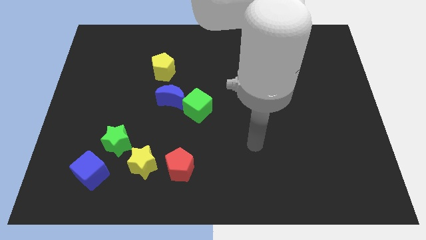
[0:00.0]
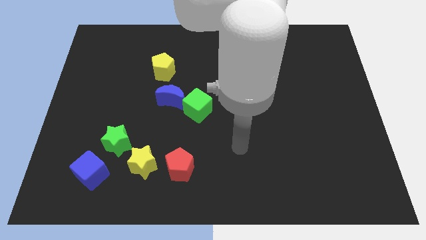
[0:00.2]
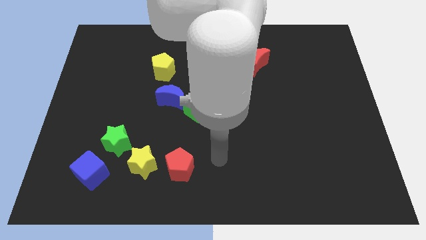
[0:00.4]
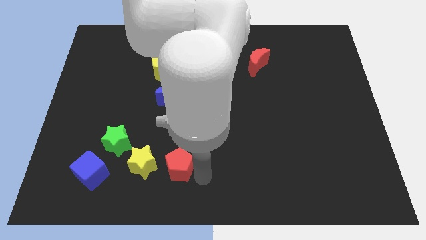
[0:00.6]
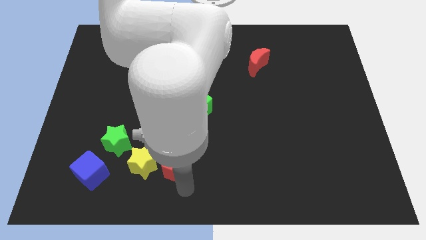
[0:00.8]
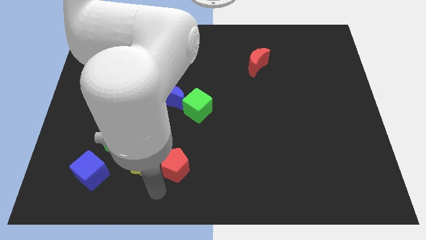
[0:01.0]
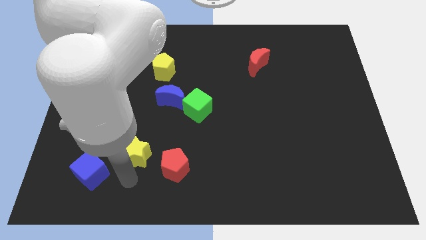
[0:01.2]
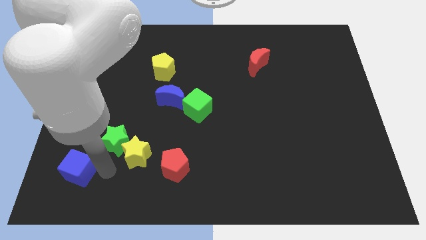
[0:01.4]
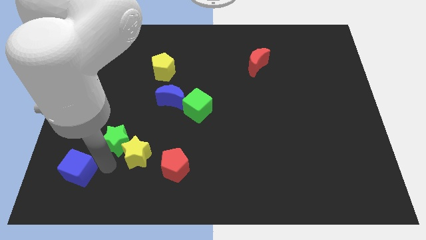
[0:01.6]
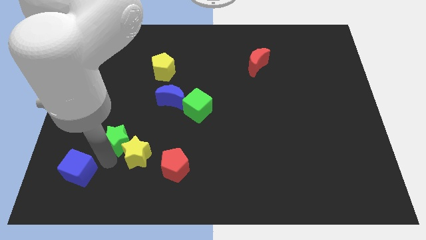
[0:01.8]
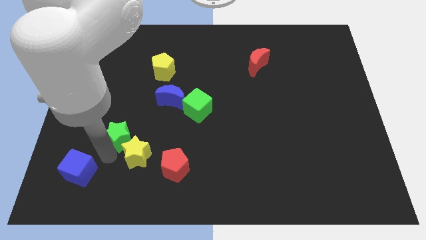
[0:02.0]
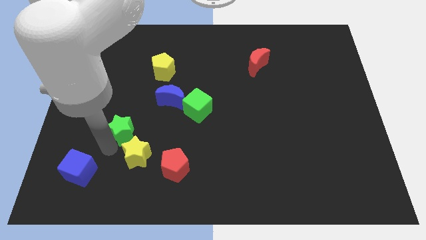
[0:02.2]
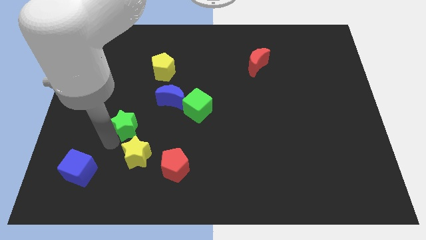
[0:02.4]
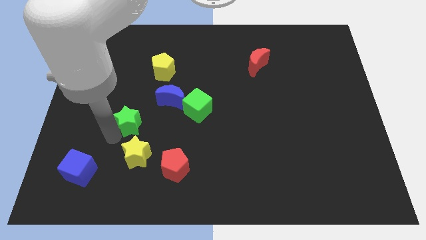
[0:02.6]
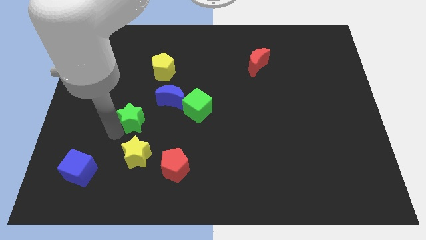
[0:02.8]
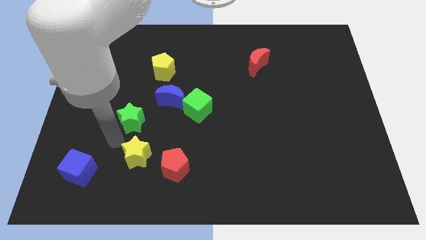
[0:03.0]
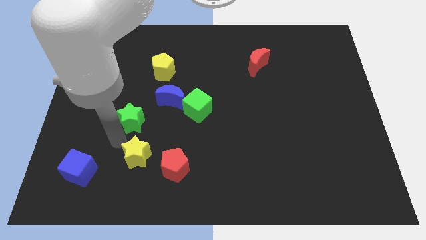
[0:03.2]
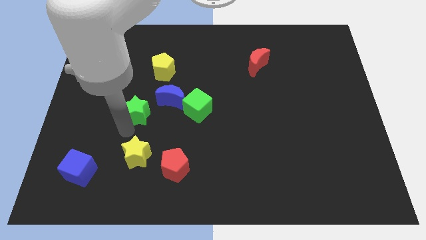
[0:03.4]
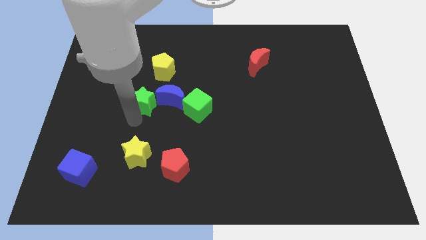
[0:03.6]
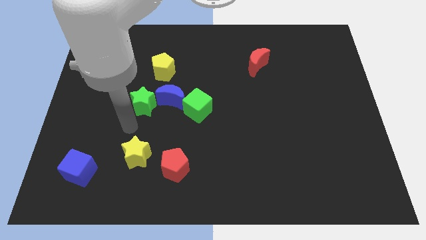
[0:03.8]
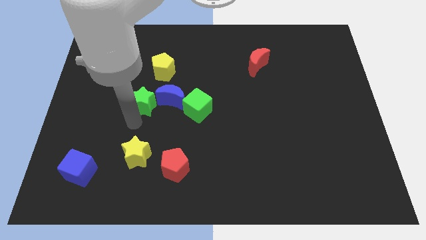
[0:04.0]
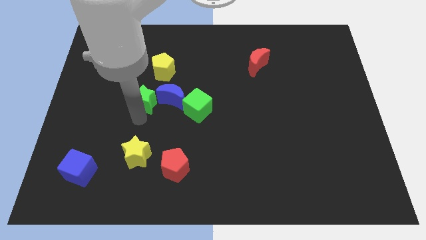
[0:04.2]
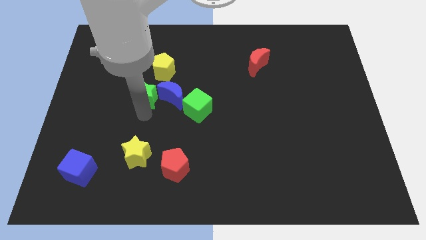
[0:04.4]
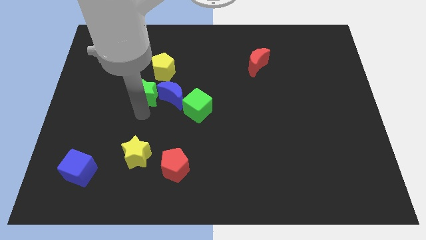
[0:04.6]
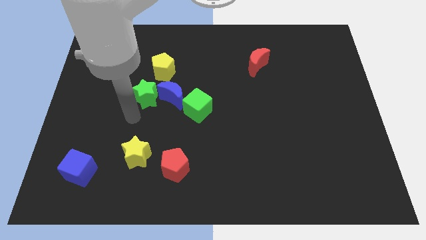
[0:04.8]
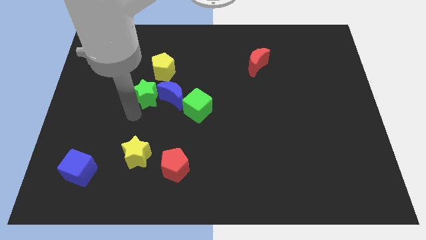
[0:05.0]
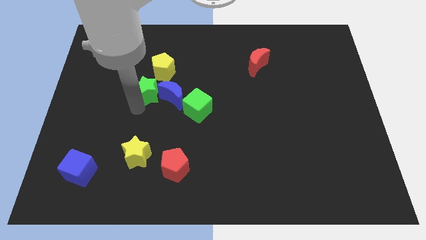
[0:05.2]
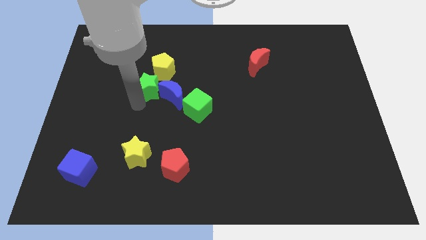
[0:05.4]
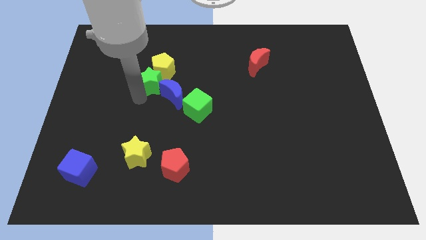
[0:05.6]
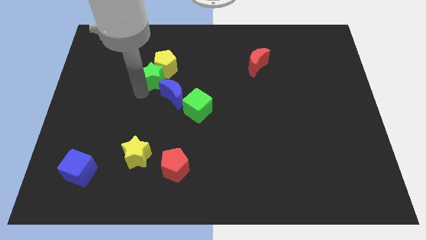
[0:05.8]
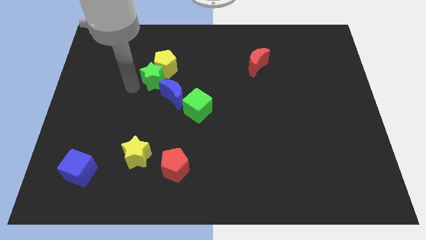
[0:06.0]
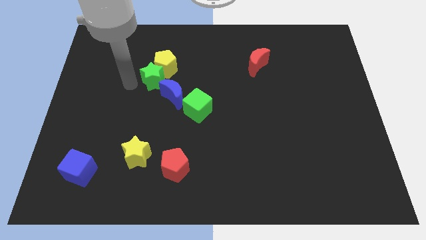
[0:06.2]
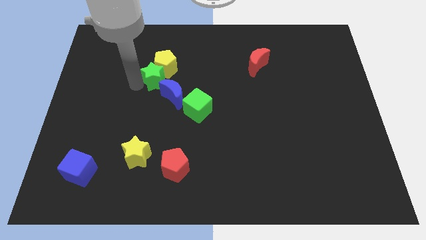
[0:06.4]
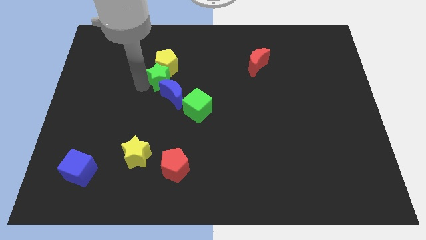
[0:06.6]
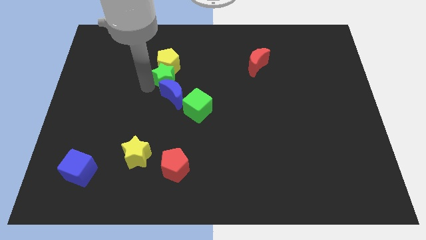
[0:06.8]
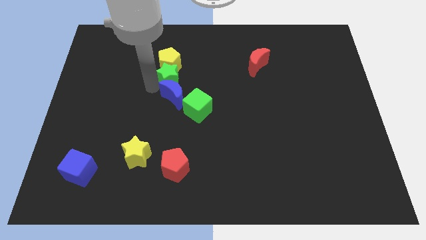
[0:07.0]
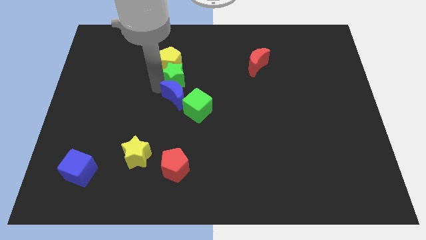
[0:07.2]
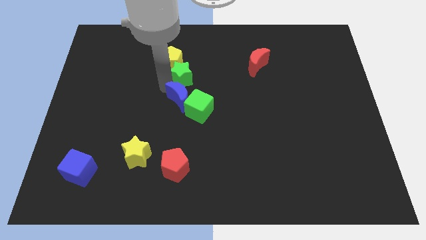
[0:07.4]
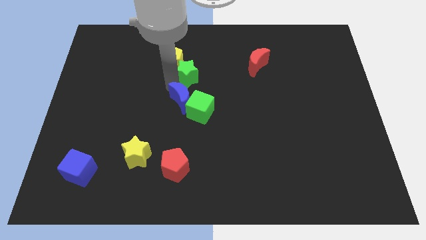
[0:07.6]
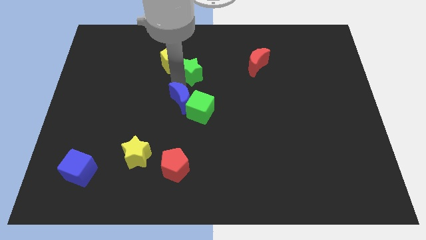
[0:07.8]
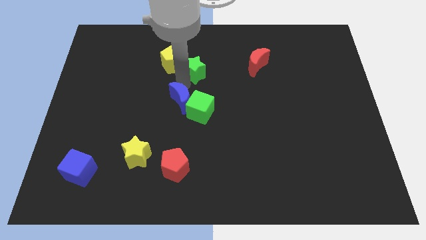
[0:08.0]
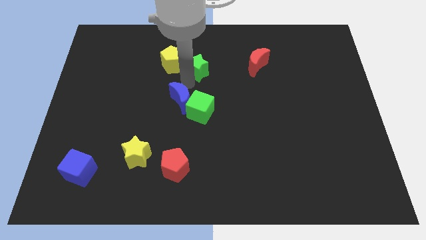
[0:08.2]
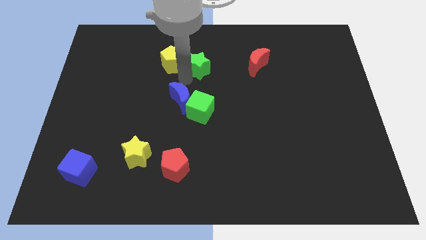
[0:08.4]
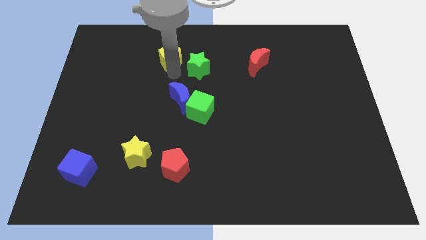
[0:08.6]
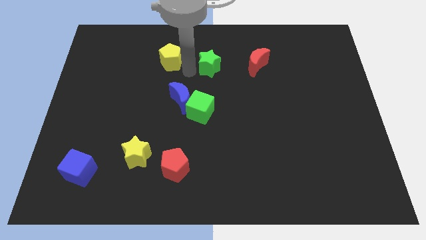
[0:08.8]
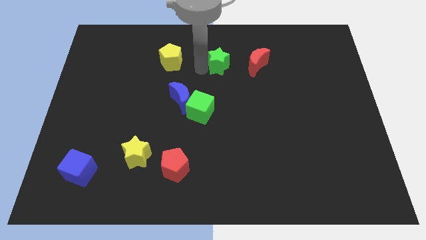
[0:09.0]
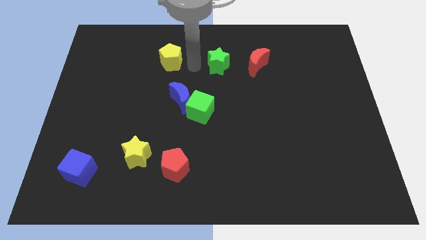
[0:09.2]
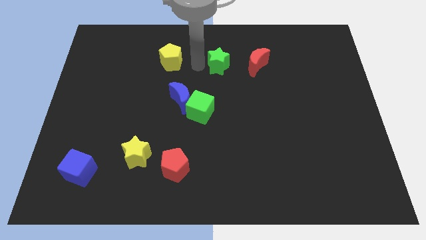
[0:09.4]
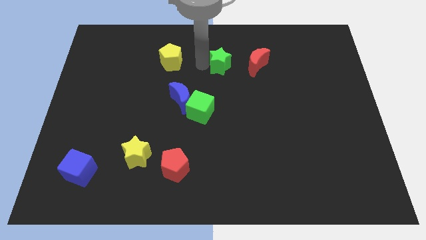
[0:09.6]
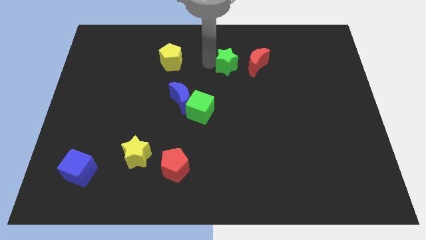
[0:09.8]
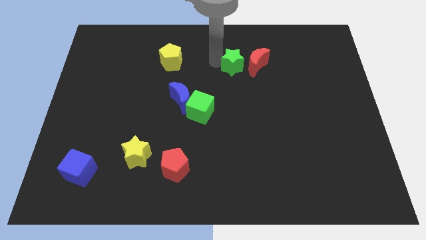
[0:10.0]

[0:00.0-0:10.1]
slide the green star close to the red moon

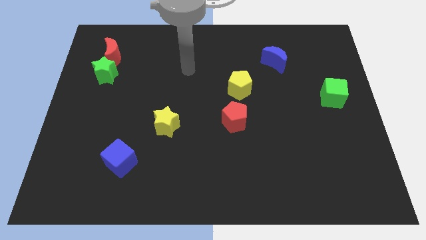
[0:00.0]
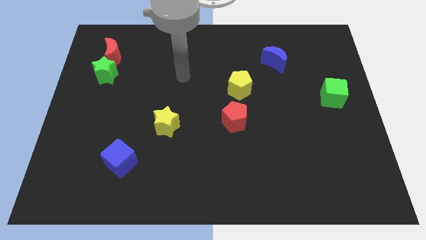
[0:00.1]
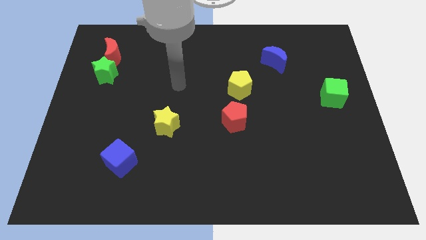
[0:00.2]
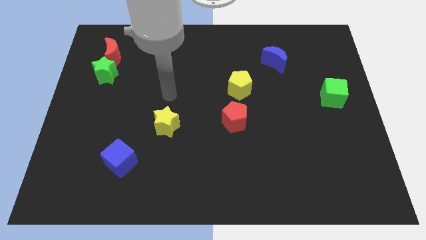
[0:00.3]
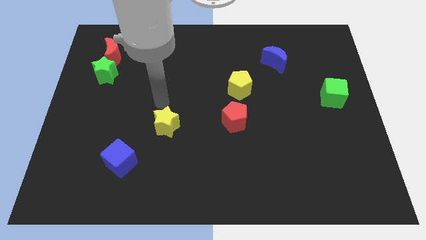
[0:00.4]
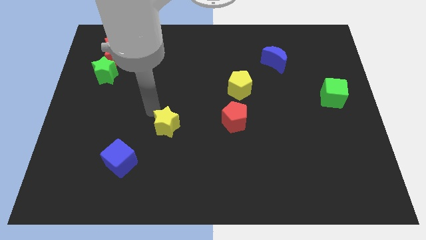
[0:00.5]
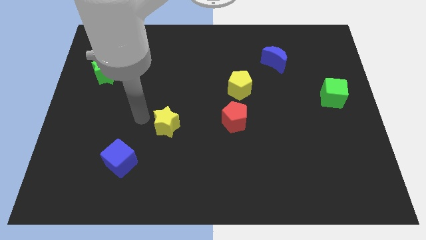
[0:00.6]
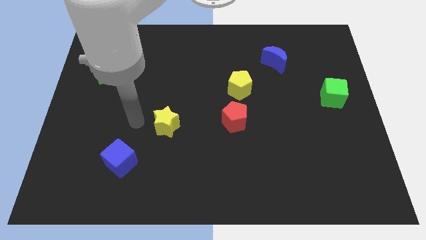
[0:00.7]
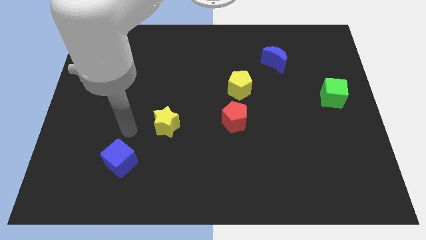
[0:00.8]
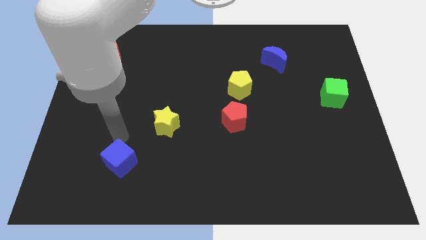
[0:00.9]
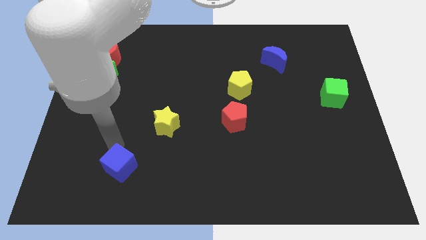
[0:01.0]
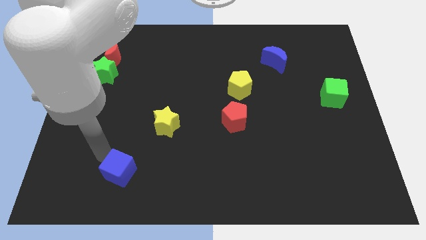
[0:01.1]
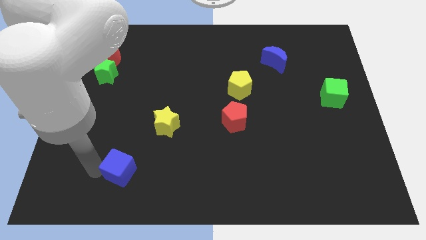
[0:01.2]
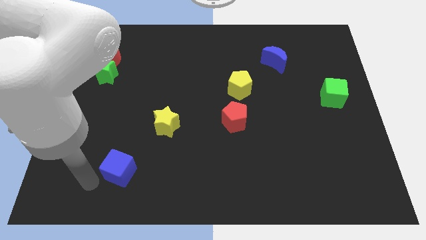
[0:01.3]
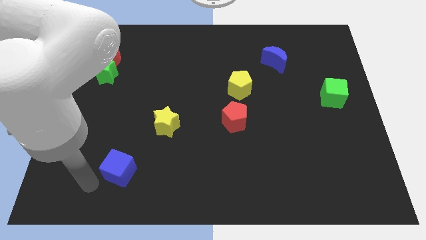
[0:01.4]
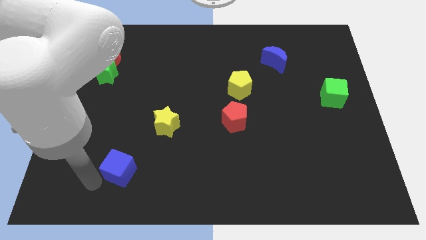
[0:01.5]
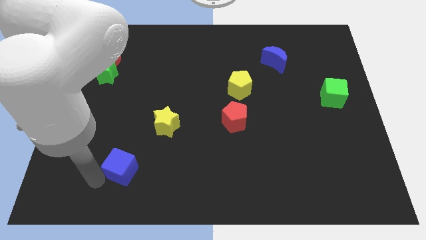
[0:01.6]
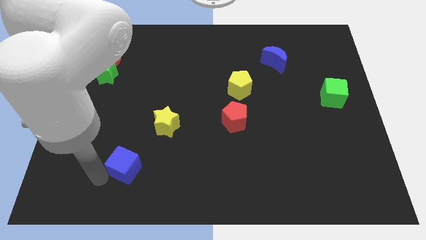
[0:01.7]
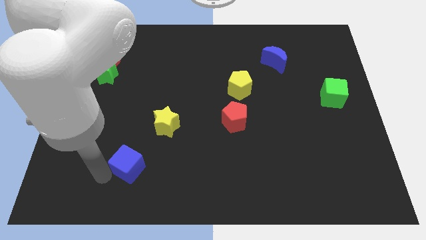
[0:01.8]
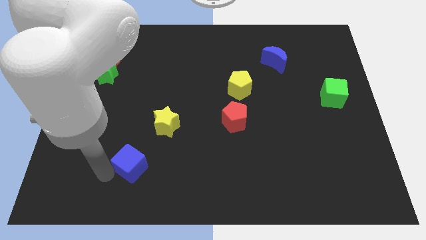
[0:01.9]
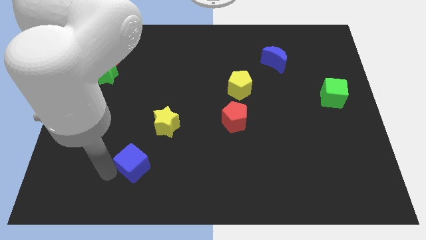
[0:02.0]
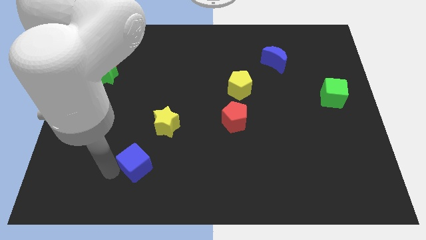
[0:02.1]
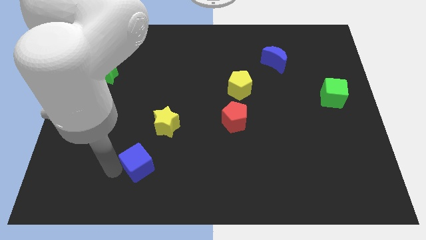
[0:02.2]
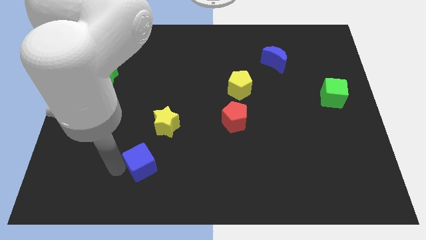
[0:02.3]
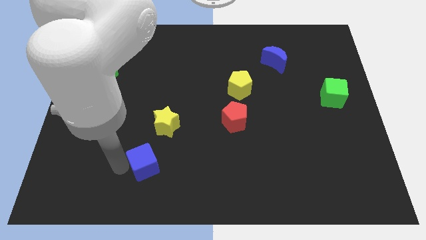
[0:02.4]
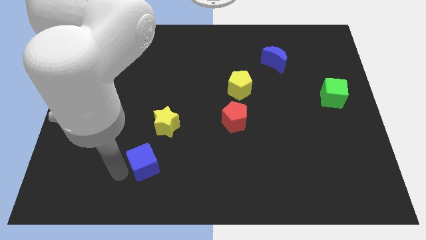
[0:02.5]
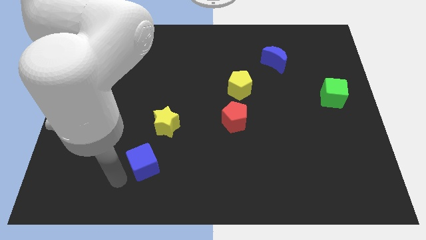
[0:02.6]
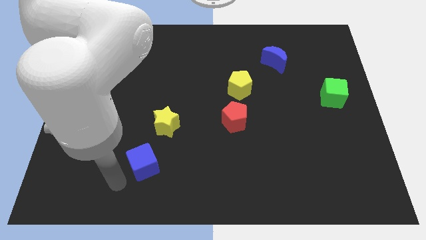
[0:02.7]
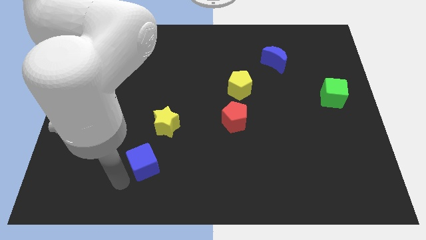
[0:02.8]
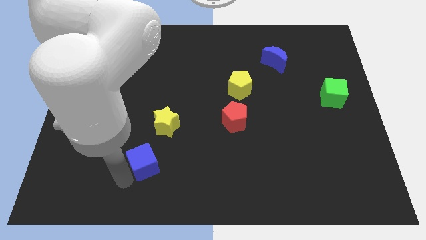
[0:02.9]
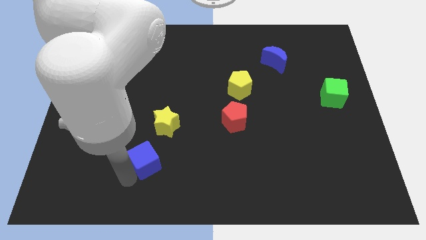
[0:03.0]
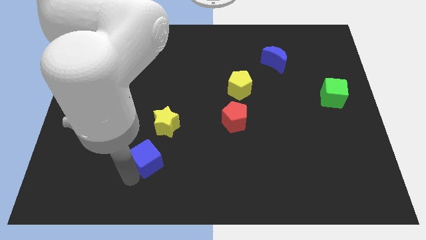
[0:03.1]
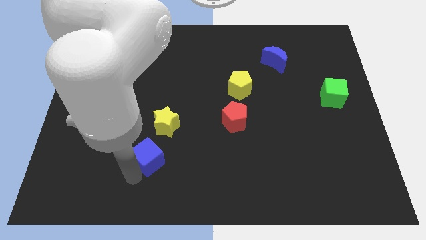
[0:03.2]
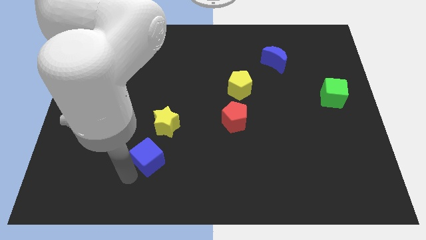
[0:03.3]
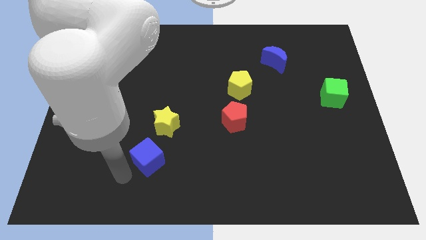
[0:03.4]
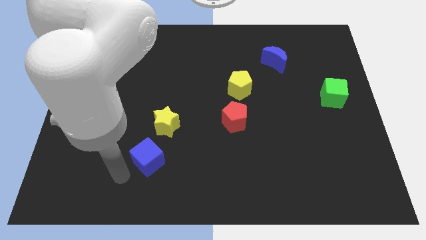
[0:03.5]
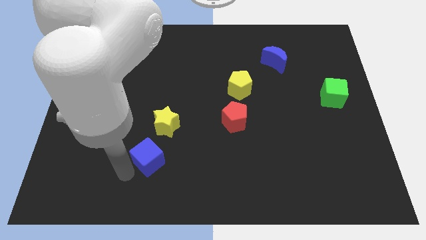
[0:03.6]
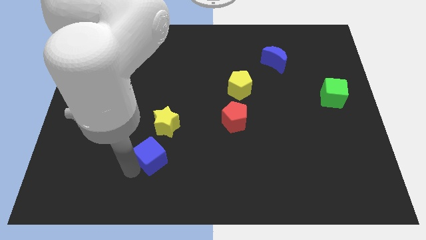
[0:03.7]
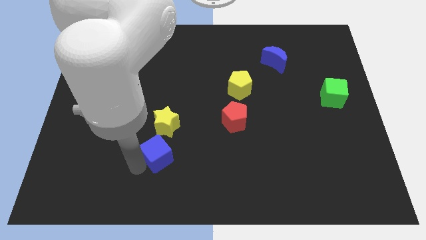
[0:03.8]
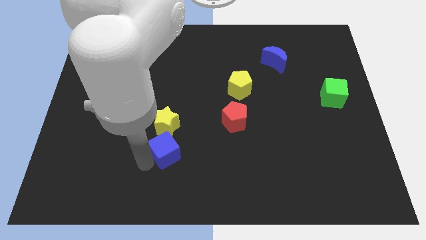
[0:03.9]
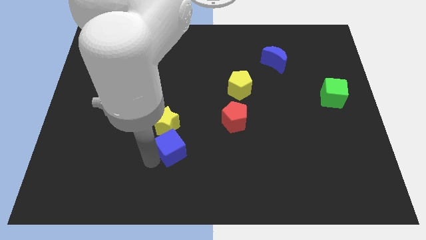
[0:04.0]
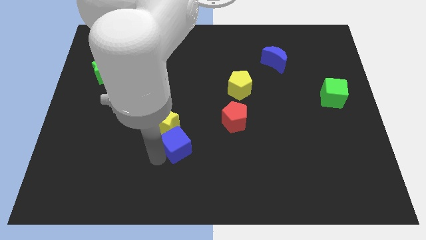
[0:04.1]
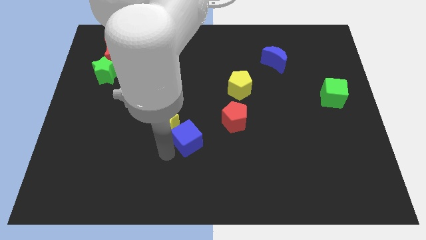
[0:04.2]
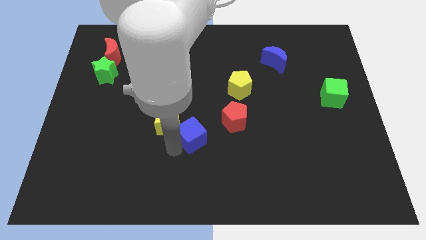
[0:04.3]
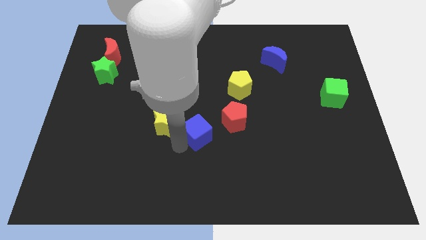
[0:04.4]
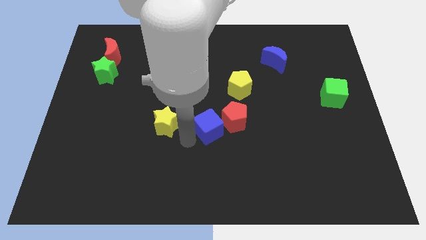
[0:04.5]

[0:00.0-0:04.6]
push the blue cube close to the red pentagon
